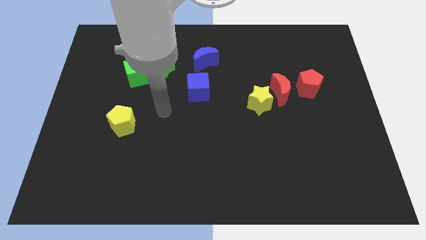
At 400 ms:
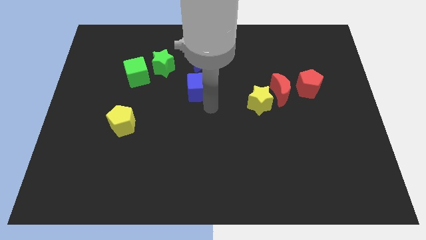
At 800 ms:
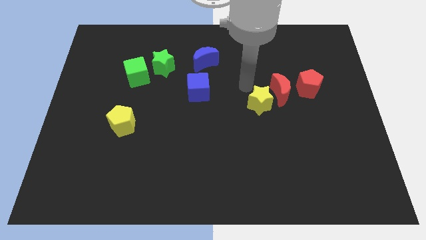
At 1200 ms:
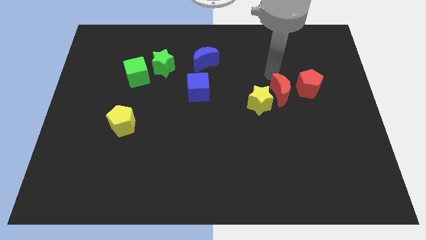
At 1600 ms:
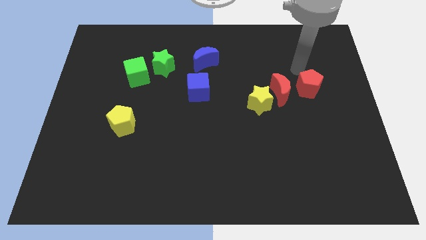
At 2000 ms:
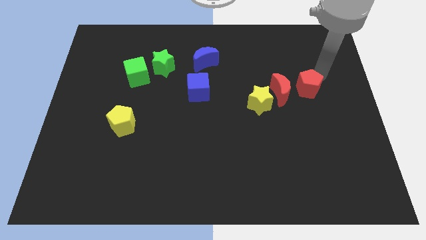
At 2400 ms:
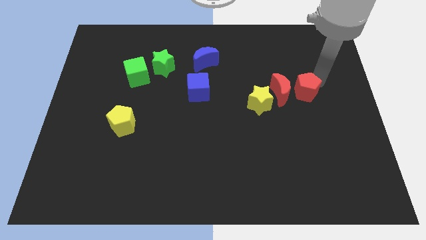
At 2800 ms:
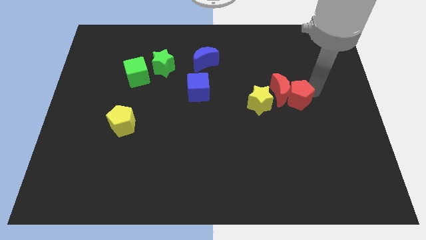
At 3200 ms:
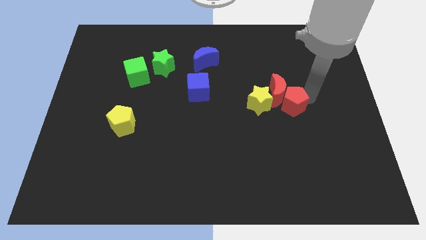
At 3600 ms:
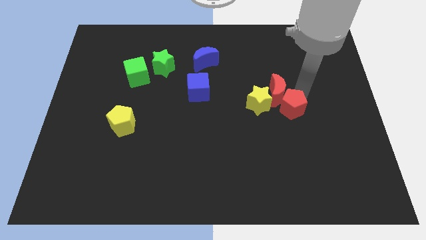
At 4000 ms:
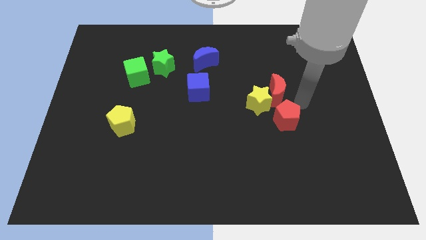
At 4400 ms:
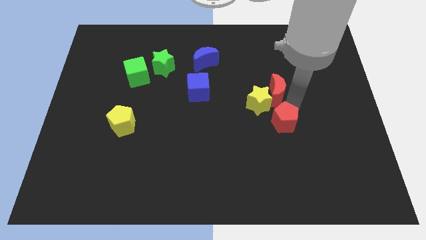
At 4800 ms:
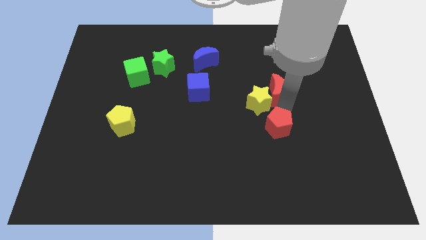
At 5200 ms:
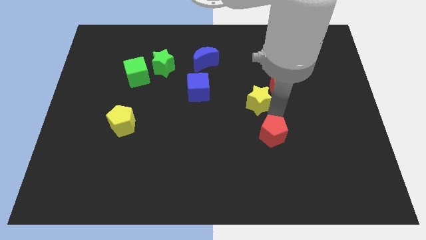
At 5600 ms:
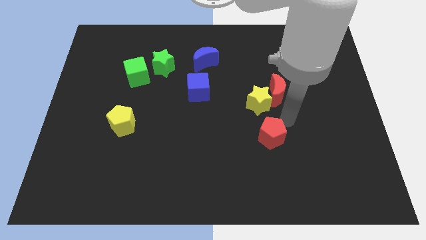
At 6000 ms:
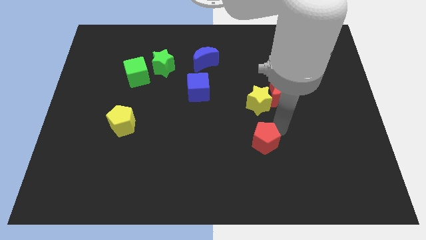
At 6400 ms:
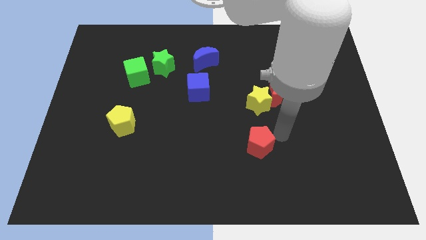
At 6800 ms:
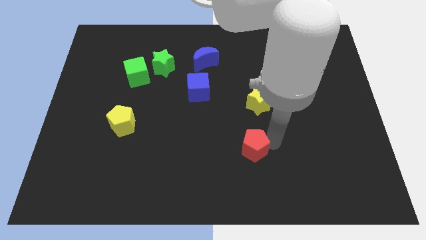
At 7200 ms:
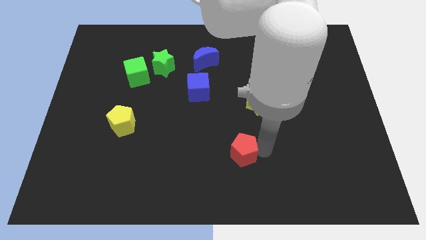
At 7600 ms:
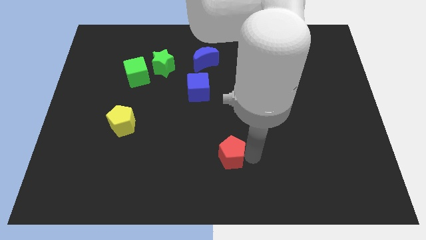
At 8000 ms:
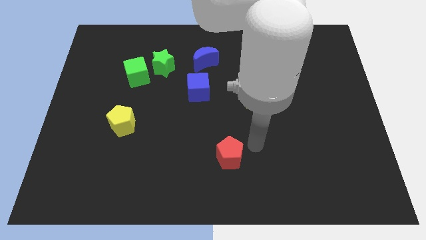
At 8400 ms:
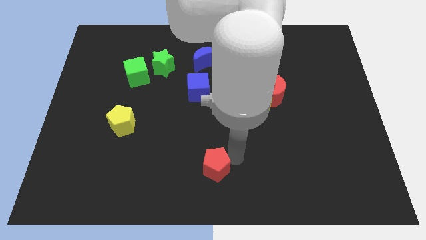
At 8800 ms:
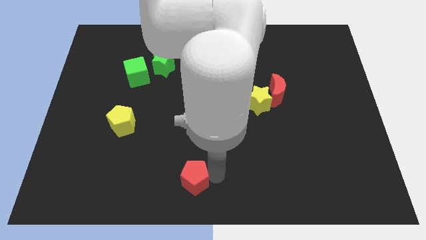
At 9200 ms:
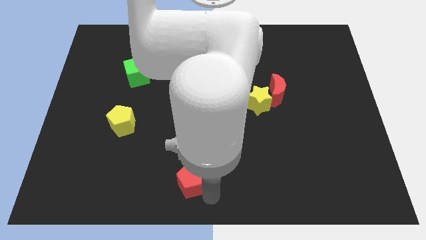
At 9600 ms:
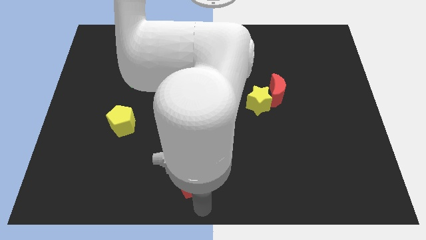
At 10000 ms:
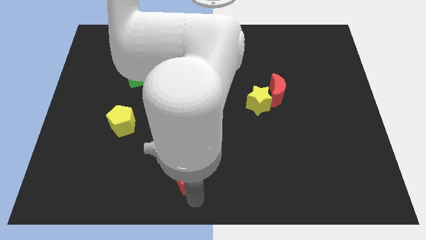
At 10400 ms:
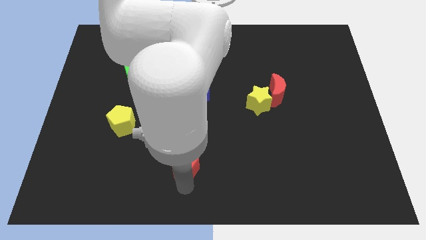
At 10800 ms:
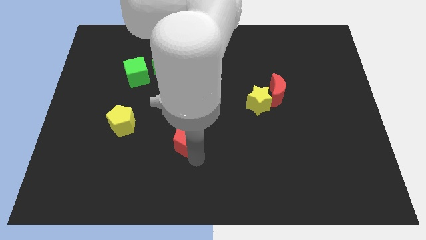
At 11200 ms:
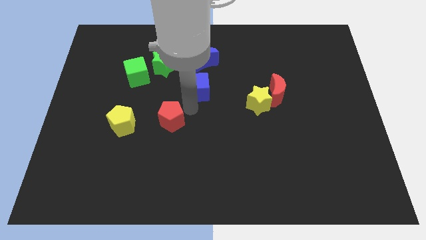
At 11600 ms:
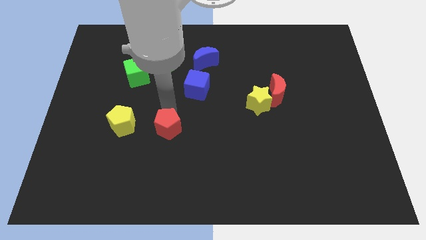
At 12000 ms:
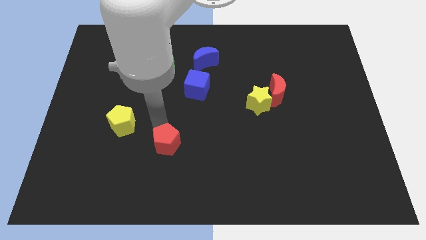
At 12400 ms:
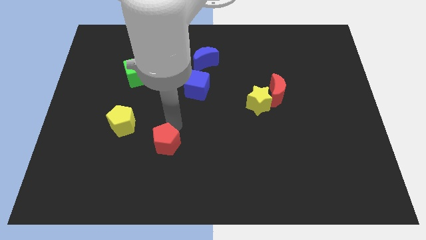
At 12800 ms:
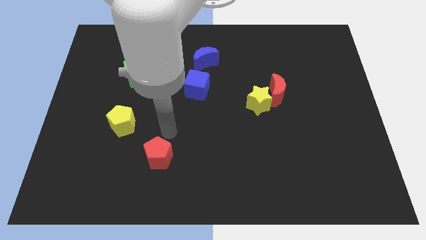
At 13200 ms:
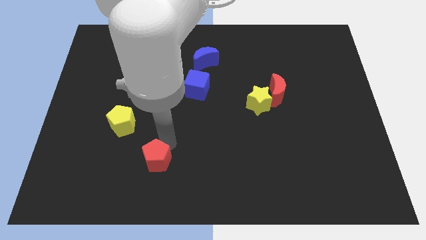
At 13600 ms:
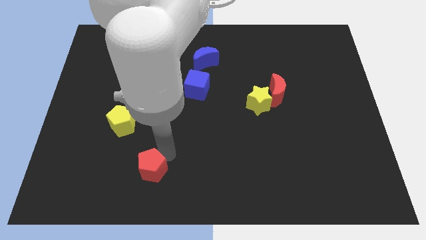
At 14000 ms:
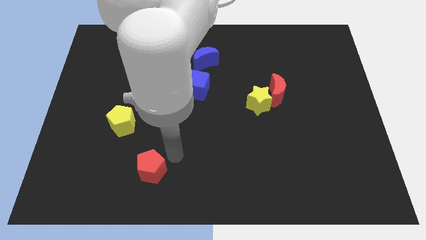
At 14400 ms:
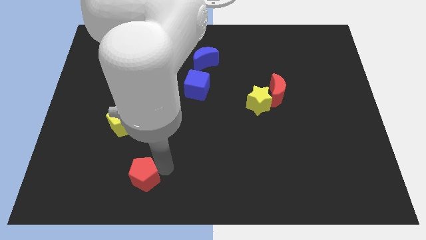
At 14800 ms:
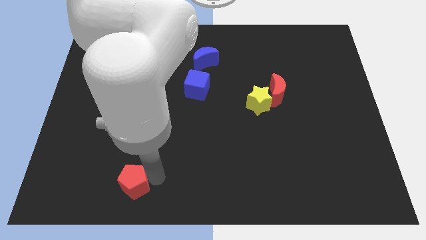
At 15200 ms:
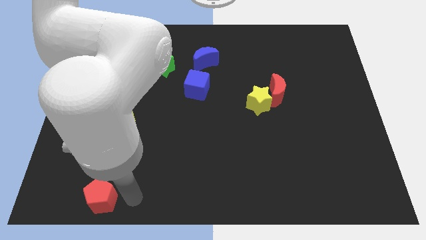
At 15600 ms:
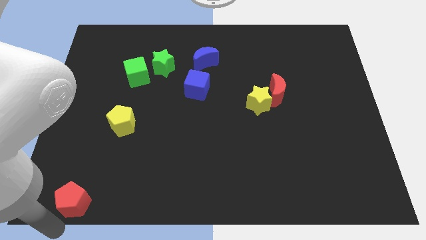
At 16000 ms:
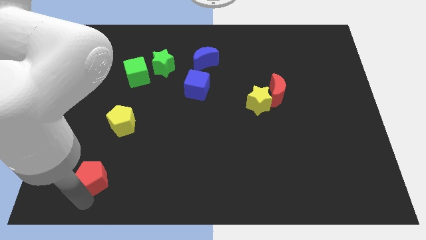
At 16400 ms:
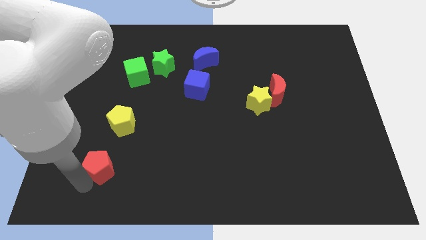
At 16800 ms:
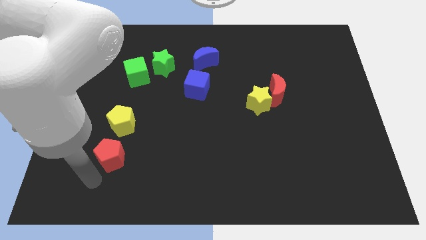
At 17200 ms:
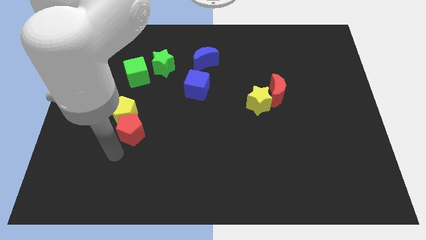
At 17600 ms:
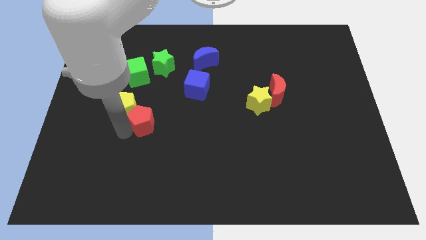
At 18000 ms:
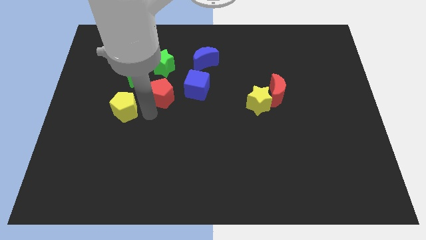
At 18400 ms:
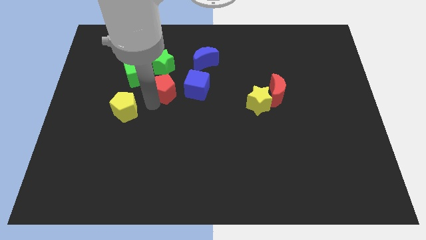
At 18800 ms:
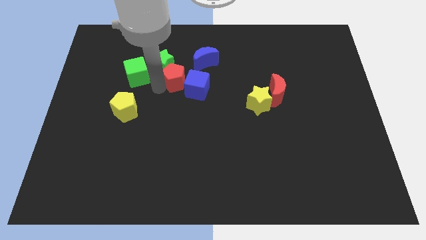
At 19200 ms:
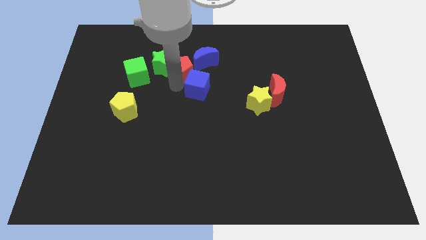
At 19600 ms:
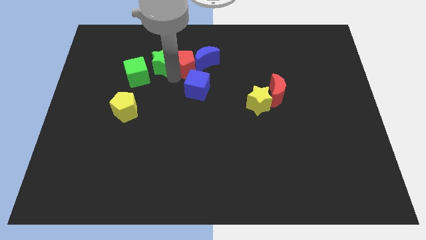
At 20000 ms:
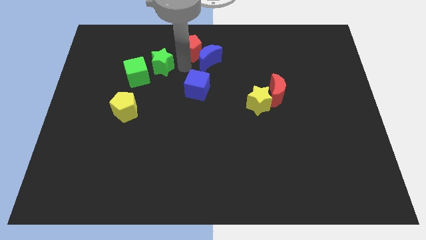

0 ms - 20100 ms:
put the red pentagon to the top side

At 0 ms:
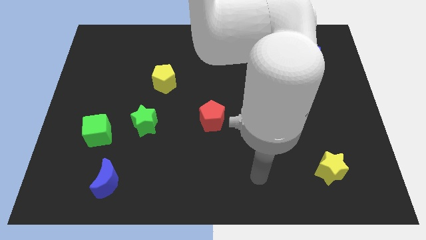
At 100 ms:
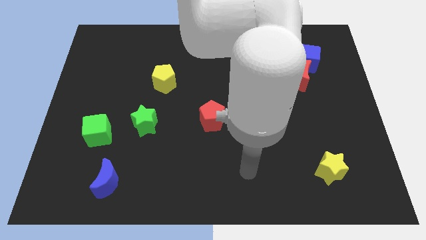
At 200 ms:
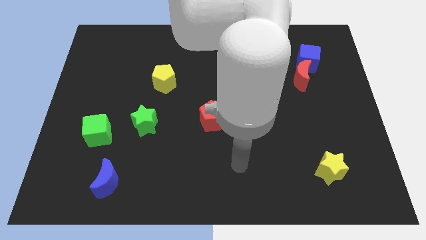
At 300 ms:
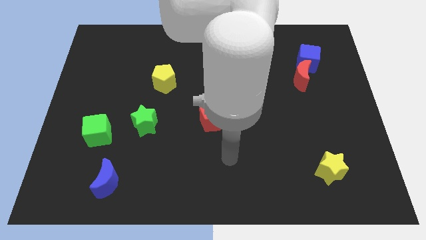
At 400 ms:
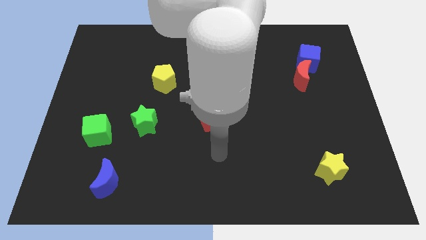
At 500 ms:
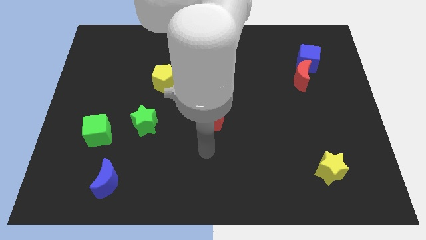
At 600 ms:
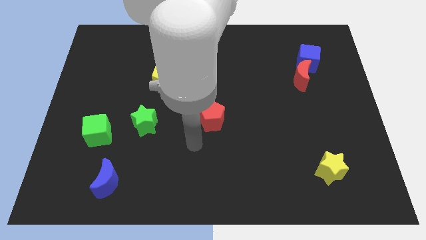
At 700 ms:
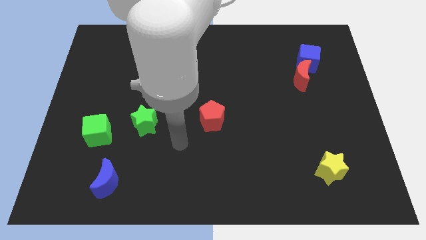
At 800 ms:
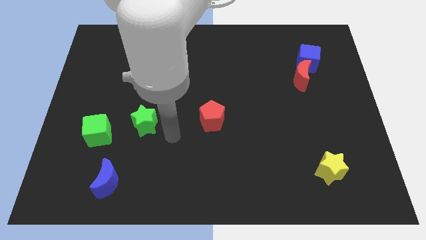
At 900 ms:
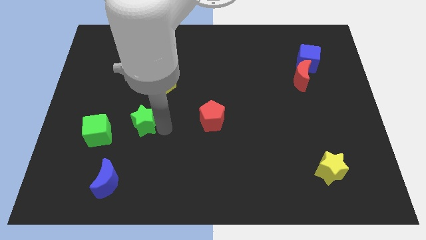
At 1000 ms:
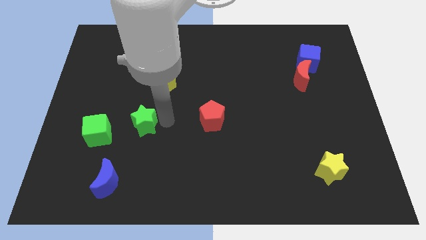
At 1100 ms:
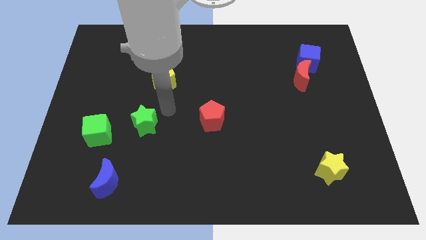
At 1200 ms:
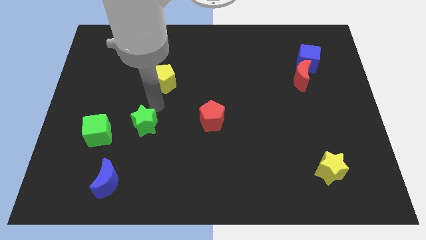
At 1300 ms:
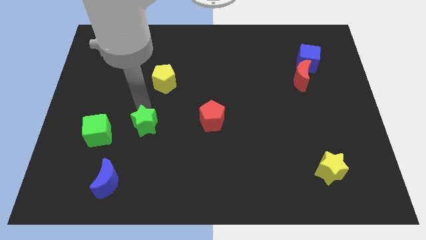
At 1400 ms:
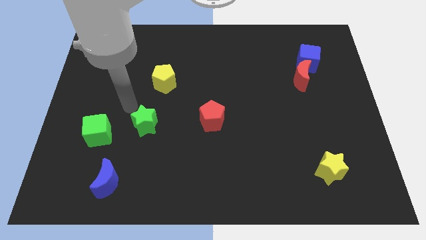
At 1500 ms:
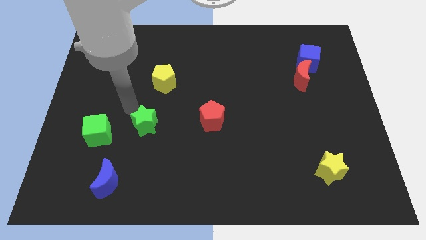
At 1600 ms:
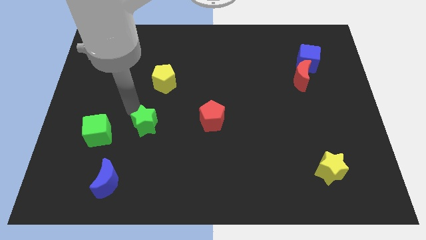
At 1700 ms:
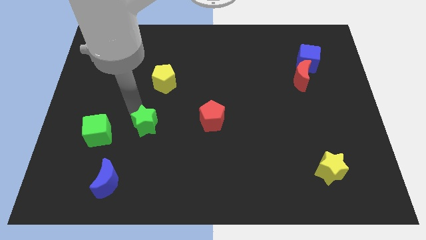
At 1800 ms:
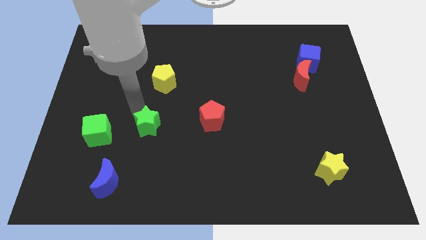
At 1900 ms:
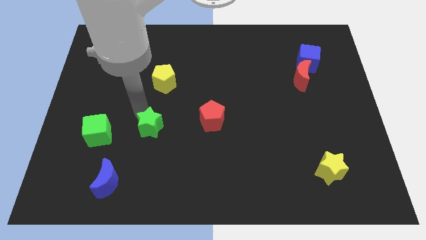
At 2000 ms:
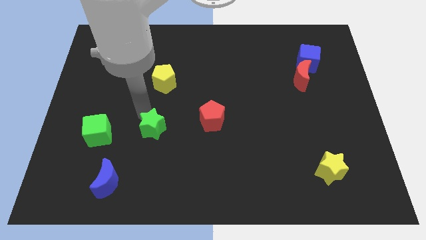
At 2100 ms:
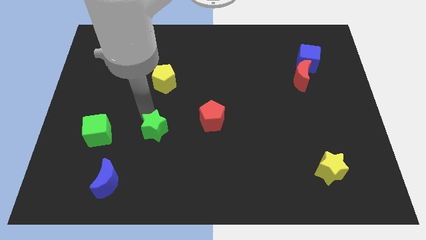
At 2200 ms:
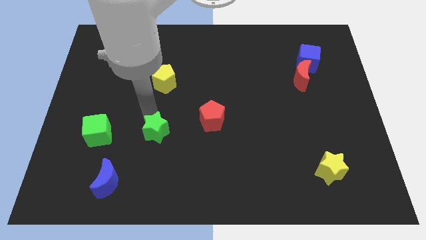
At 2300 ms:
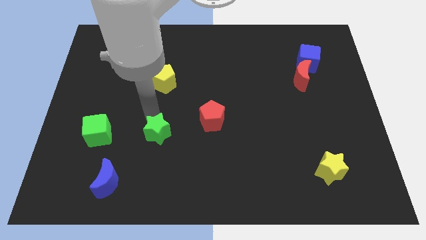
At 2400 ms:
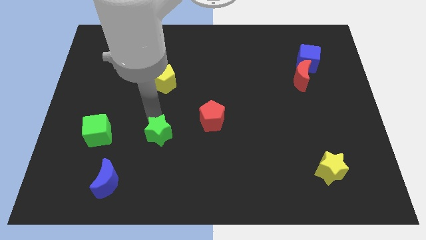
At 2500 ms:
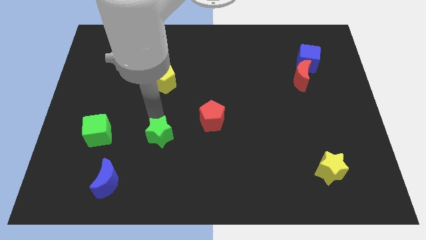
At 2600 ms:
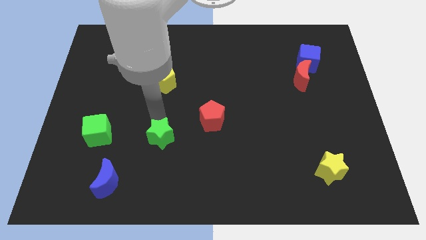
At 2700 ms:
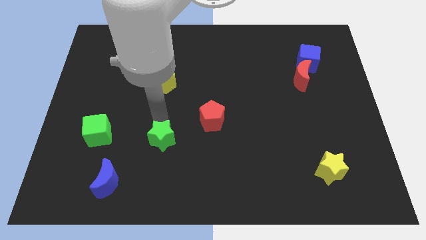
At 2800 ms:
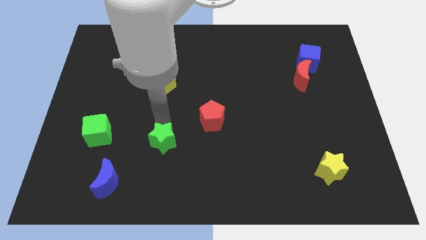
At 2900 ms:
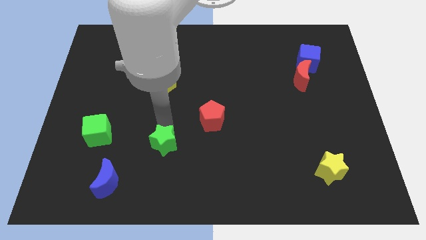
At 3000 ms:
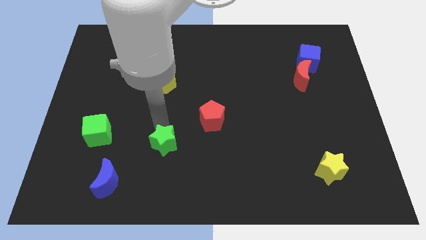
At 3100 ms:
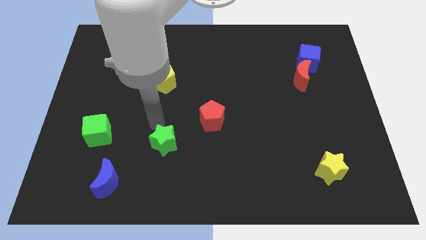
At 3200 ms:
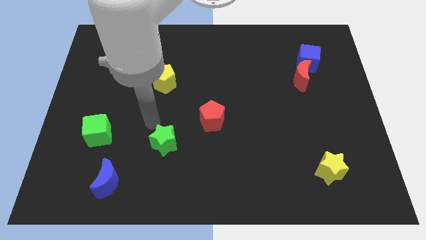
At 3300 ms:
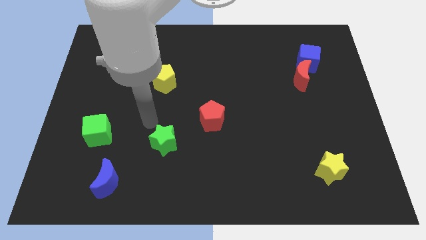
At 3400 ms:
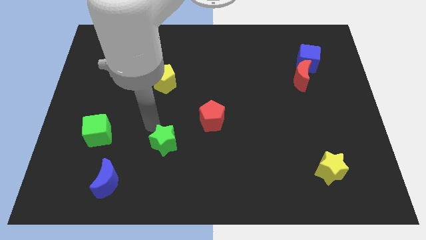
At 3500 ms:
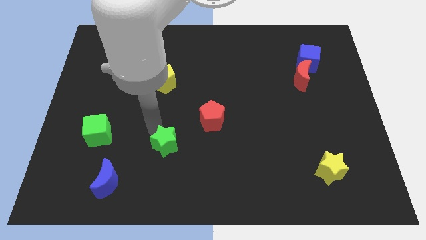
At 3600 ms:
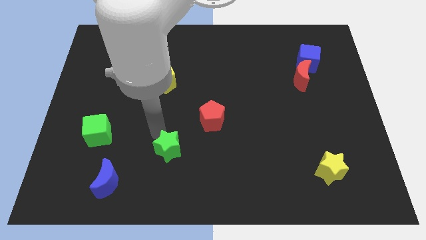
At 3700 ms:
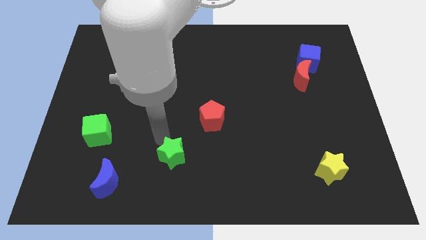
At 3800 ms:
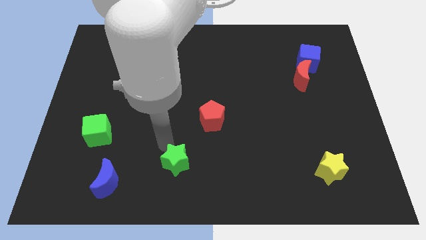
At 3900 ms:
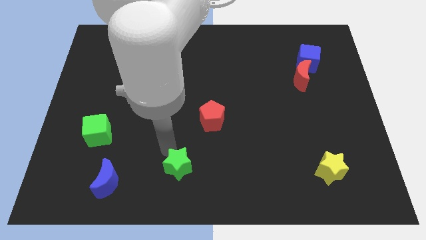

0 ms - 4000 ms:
move the green star to the bottom side
